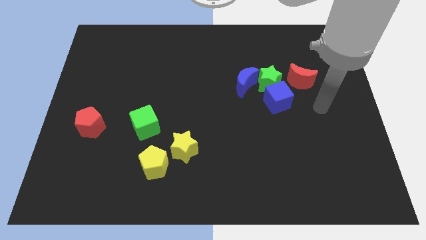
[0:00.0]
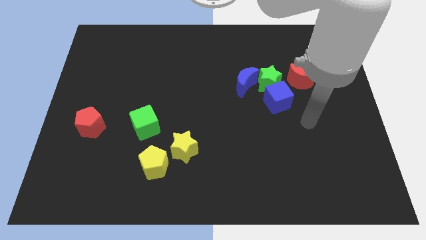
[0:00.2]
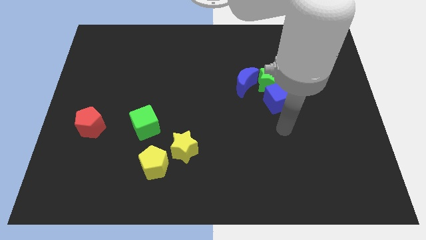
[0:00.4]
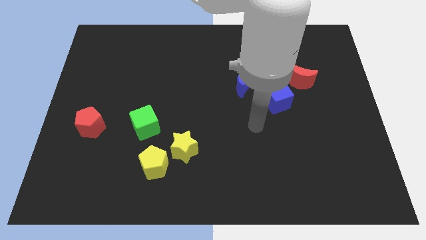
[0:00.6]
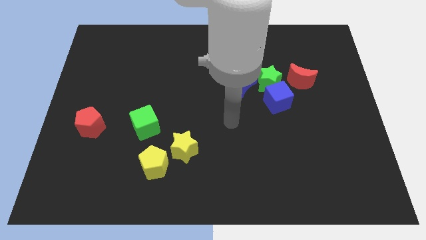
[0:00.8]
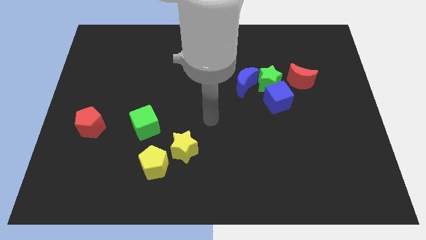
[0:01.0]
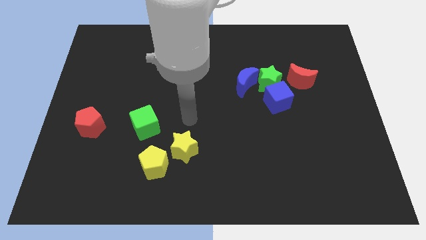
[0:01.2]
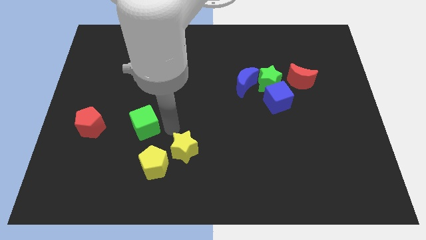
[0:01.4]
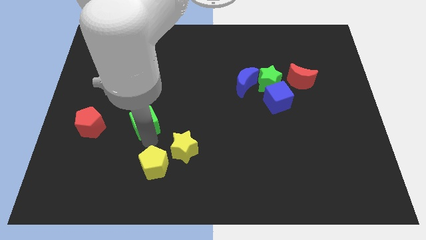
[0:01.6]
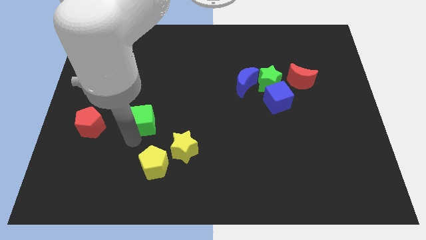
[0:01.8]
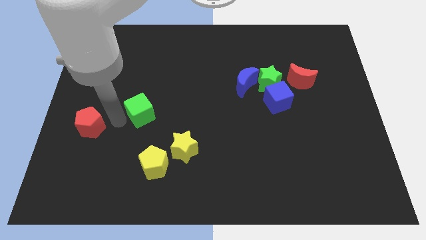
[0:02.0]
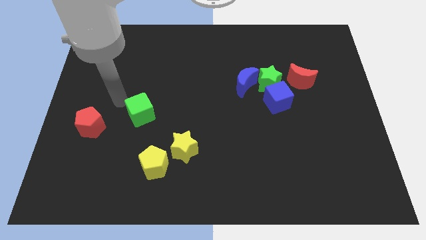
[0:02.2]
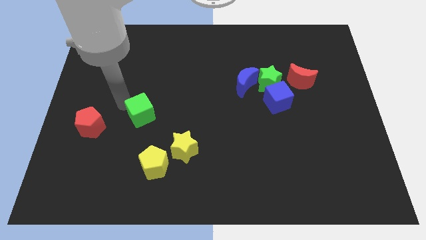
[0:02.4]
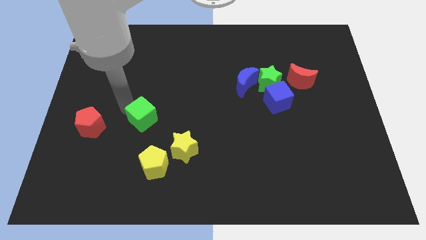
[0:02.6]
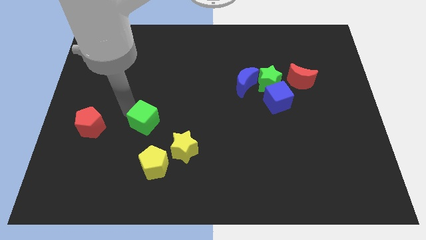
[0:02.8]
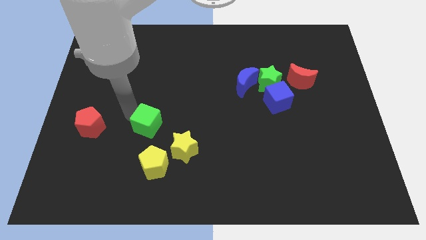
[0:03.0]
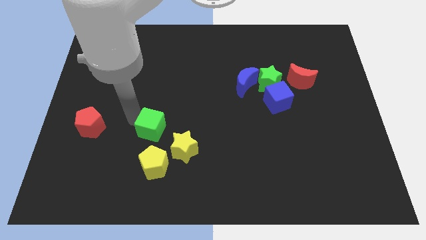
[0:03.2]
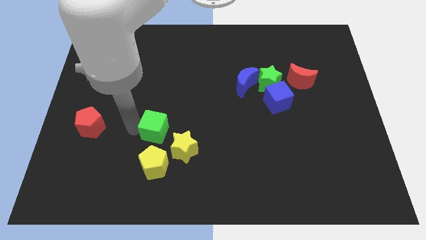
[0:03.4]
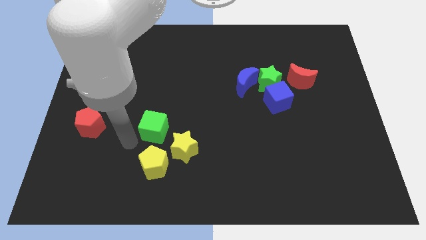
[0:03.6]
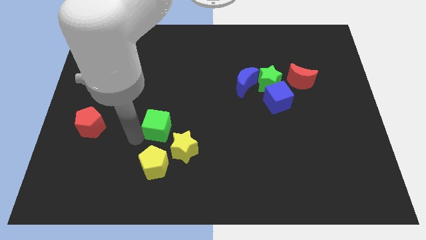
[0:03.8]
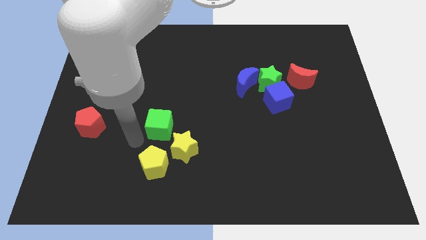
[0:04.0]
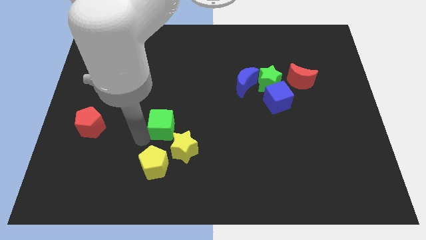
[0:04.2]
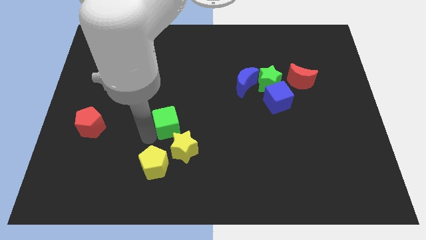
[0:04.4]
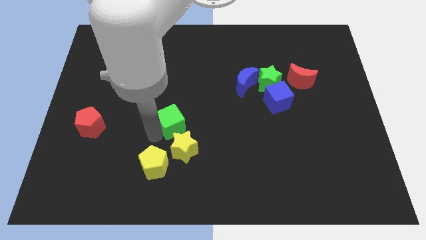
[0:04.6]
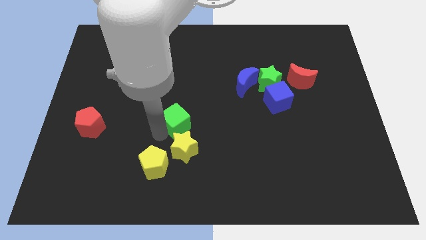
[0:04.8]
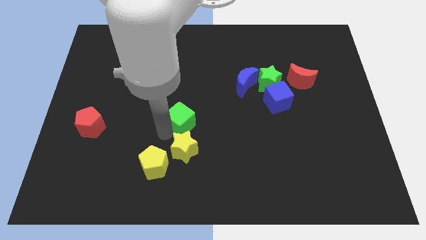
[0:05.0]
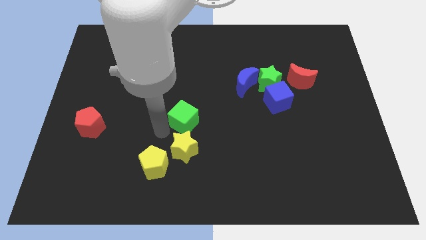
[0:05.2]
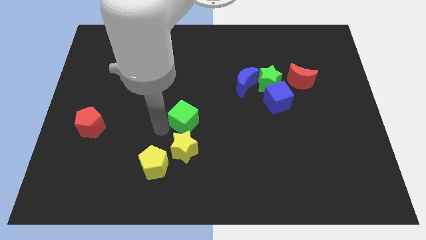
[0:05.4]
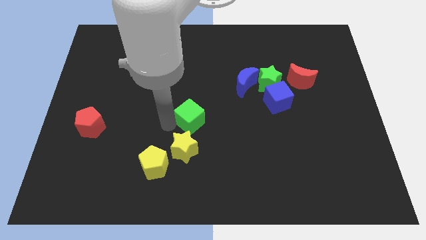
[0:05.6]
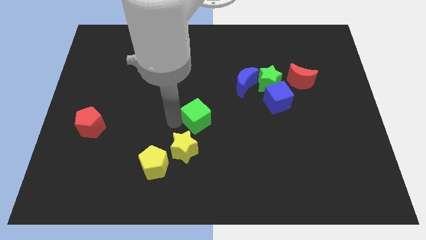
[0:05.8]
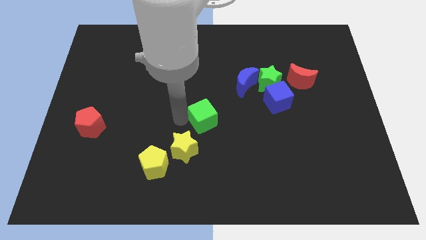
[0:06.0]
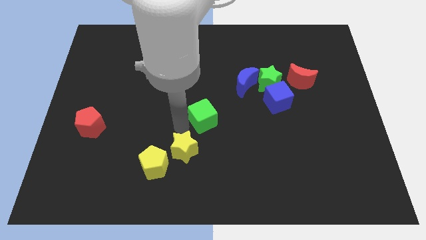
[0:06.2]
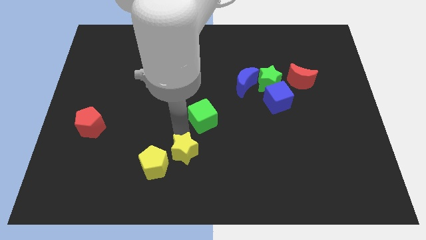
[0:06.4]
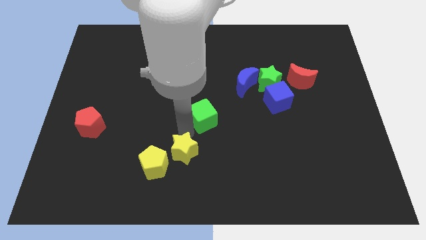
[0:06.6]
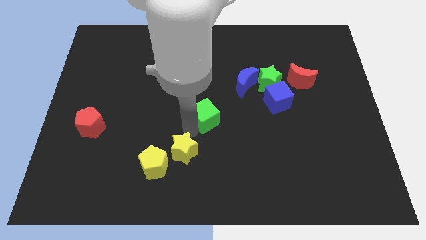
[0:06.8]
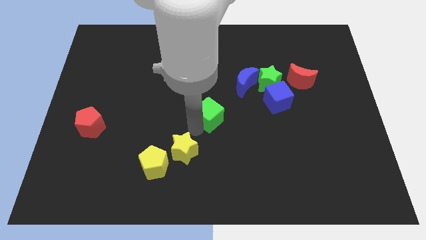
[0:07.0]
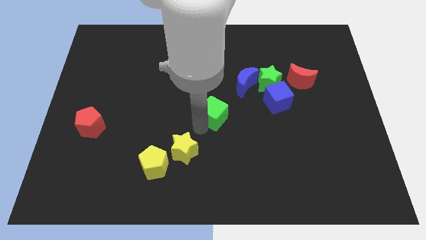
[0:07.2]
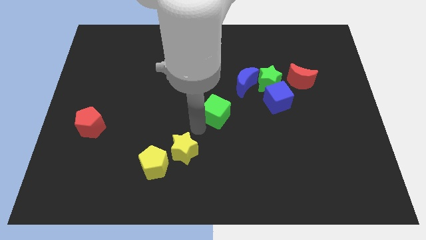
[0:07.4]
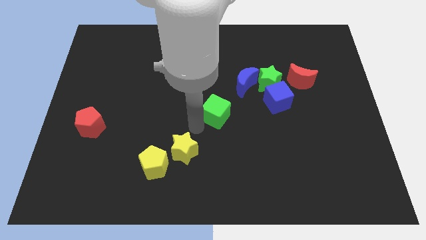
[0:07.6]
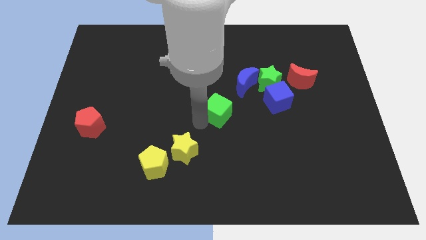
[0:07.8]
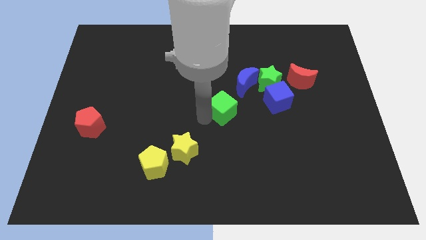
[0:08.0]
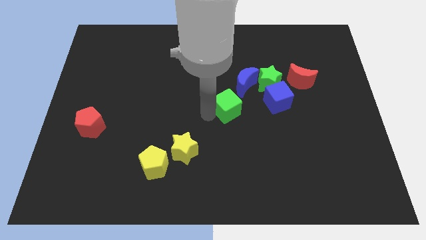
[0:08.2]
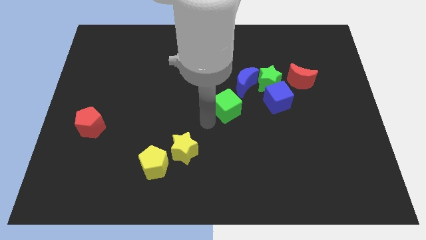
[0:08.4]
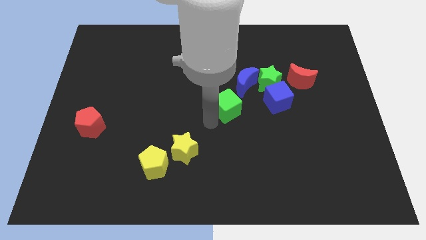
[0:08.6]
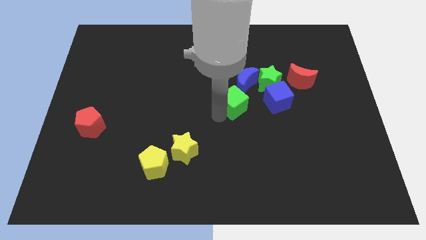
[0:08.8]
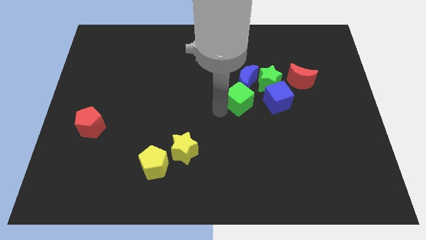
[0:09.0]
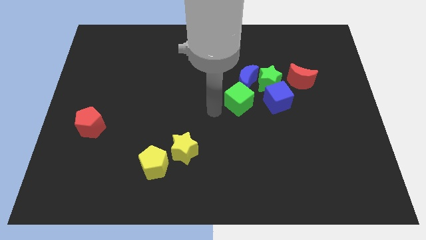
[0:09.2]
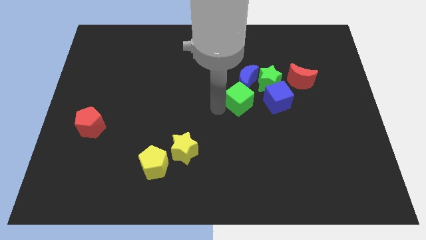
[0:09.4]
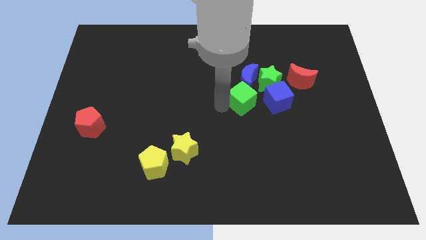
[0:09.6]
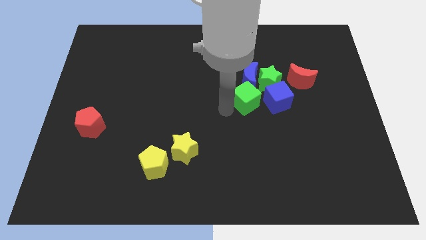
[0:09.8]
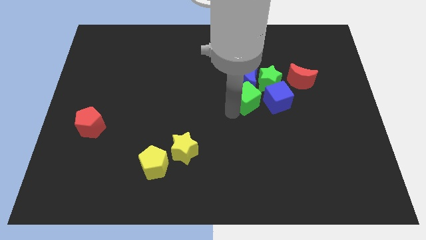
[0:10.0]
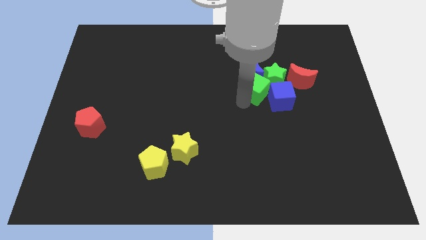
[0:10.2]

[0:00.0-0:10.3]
put the green cube close to the green star

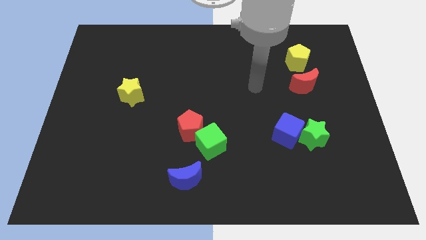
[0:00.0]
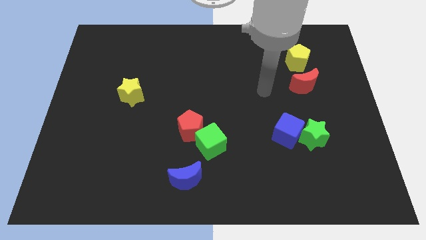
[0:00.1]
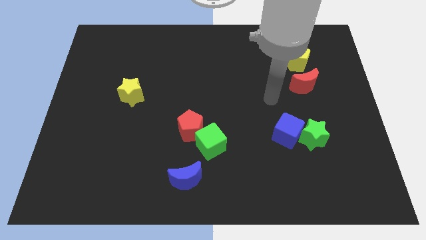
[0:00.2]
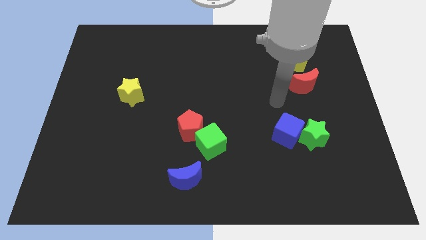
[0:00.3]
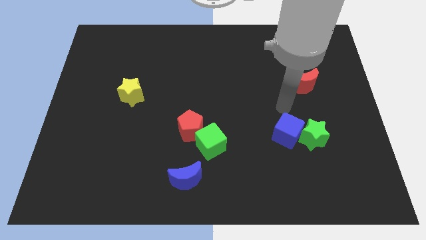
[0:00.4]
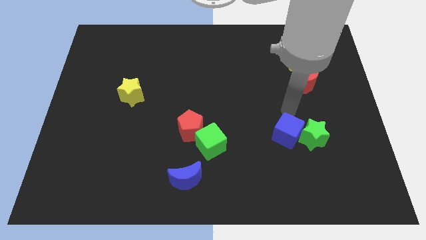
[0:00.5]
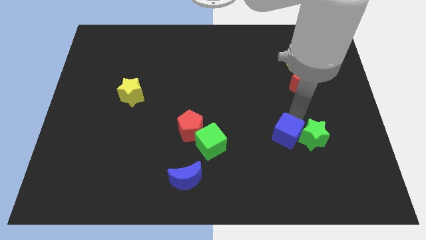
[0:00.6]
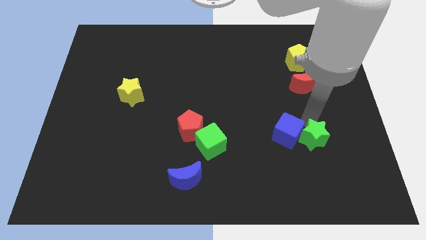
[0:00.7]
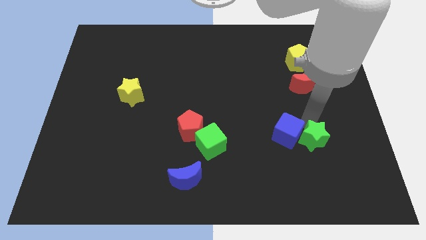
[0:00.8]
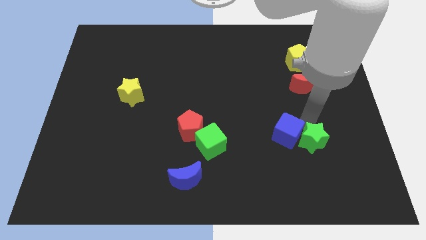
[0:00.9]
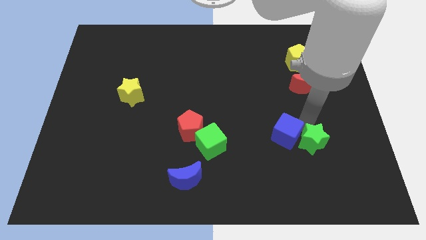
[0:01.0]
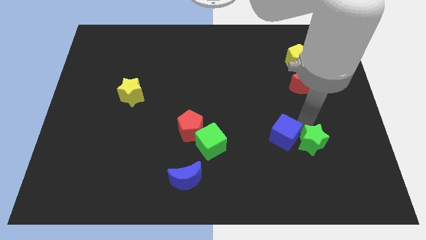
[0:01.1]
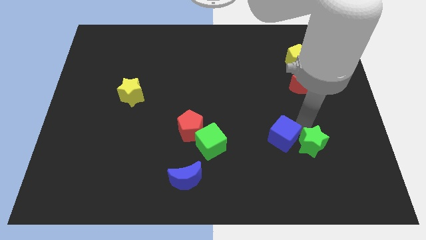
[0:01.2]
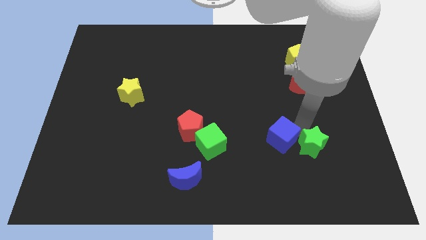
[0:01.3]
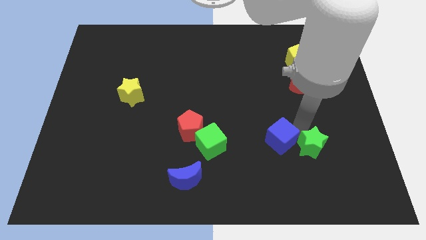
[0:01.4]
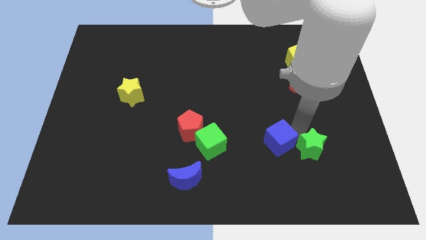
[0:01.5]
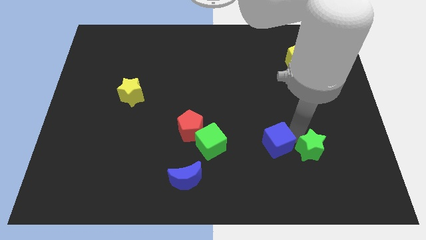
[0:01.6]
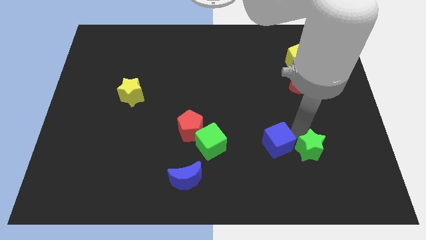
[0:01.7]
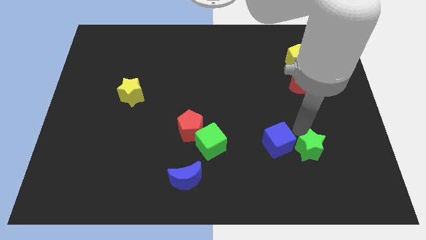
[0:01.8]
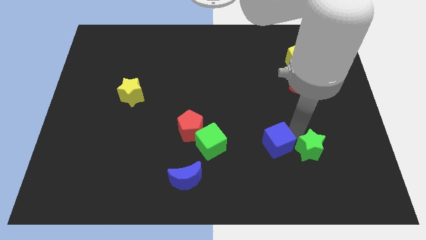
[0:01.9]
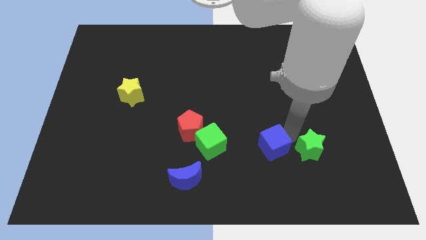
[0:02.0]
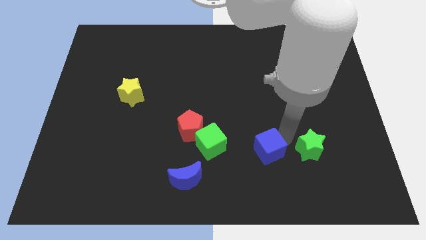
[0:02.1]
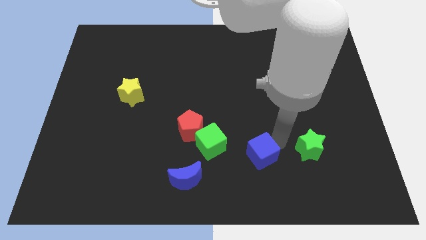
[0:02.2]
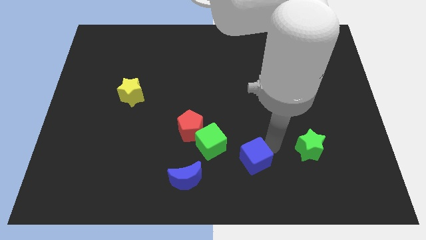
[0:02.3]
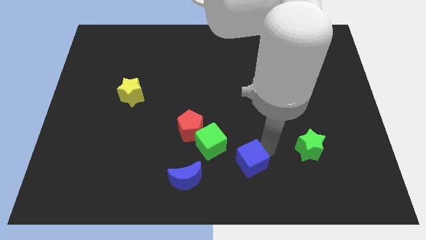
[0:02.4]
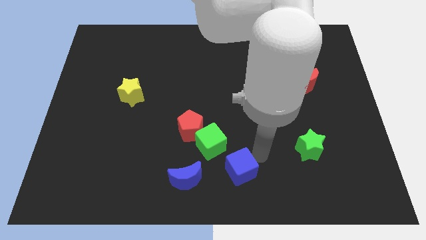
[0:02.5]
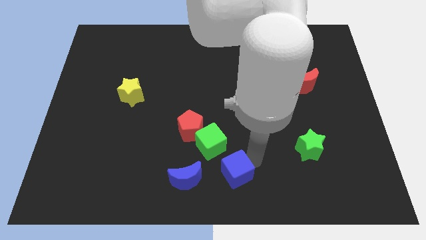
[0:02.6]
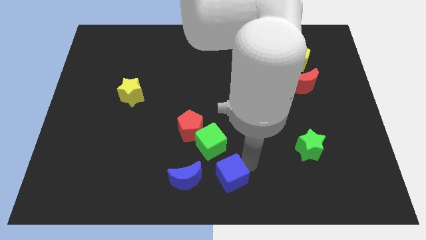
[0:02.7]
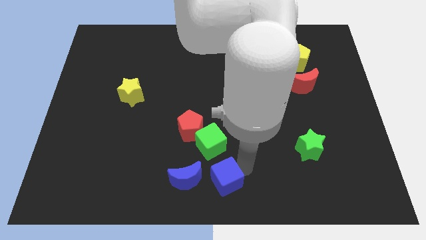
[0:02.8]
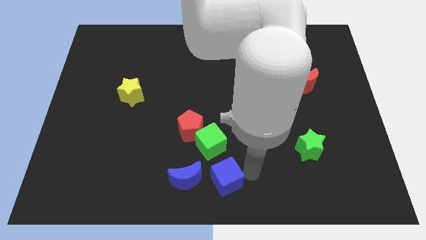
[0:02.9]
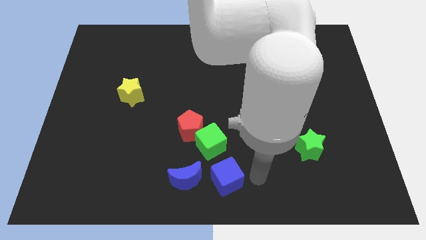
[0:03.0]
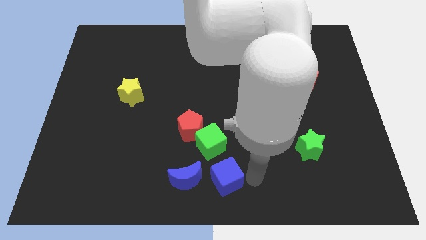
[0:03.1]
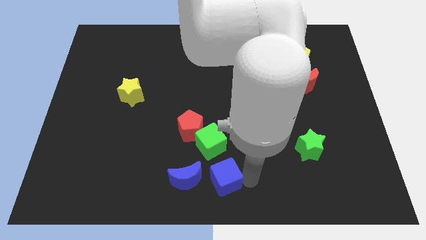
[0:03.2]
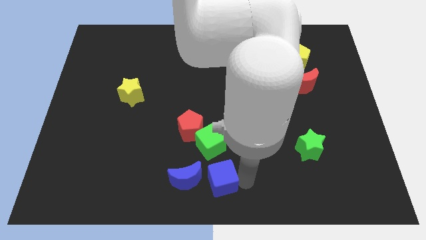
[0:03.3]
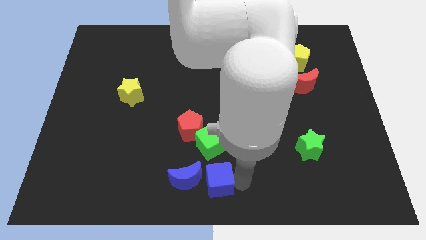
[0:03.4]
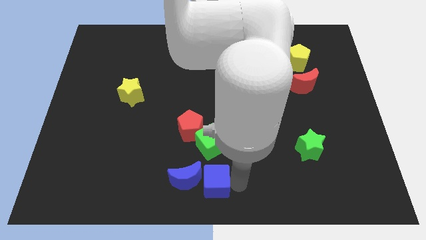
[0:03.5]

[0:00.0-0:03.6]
push the blue cube to the blue moon
